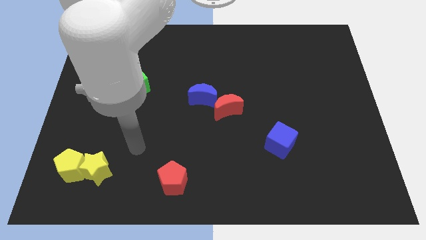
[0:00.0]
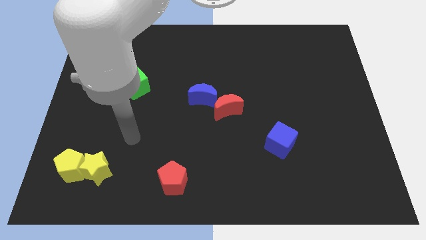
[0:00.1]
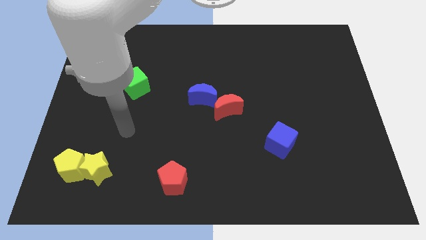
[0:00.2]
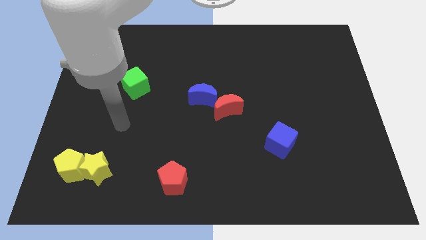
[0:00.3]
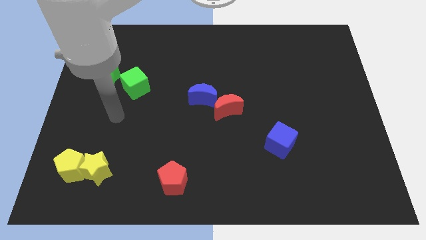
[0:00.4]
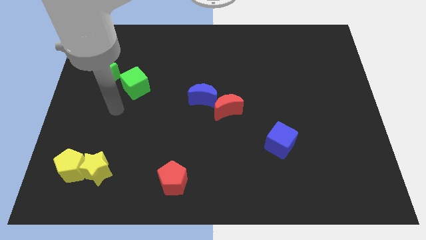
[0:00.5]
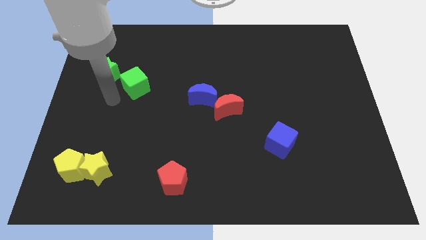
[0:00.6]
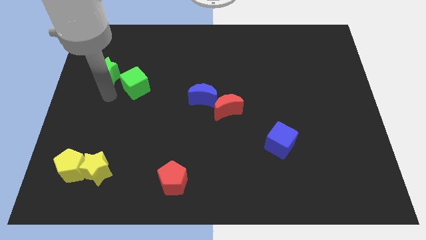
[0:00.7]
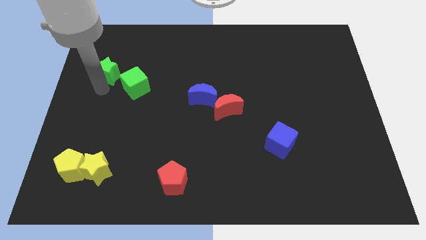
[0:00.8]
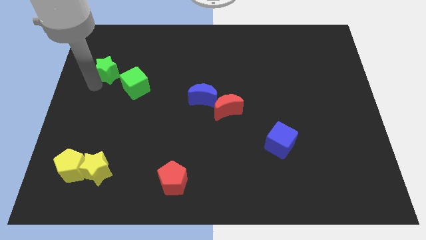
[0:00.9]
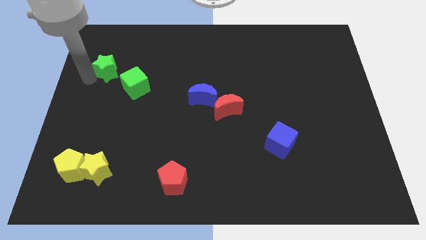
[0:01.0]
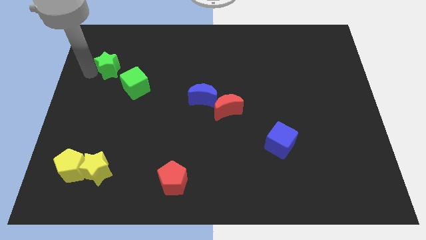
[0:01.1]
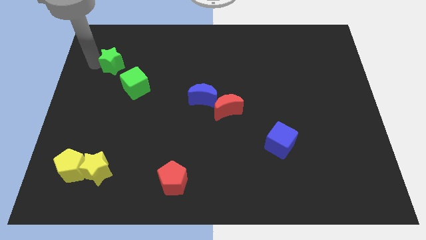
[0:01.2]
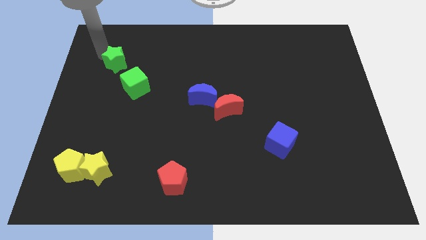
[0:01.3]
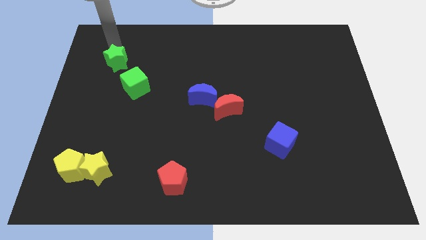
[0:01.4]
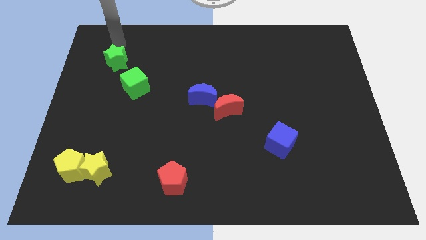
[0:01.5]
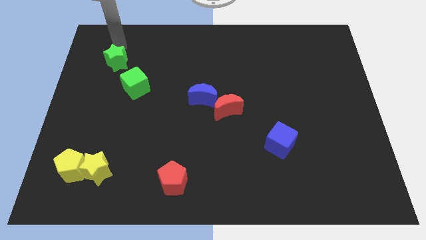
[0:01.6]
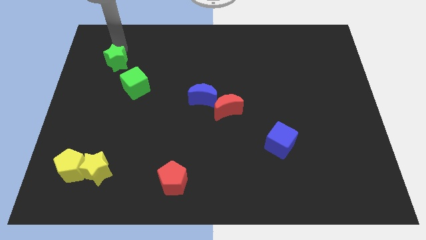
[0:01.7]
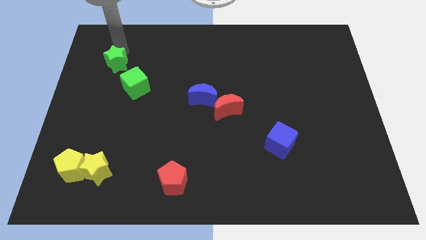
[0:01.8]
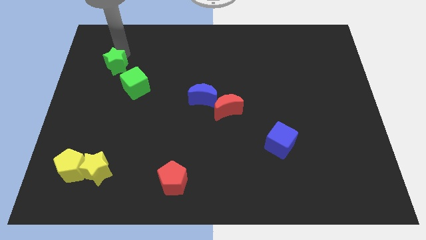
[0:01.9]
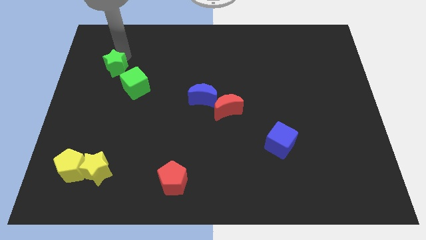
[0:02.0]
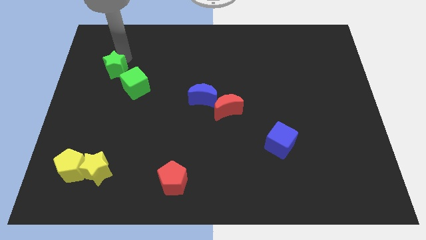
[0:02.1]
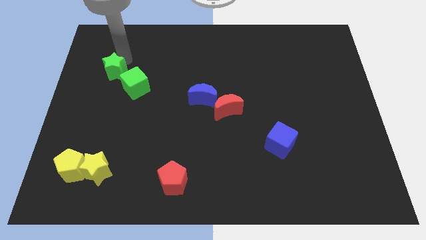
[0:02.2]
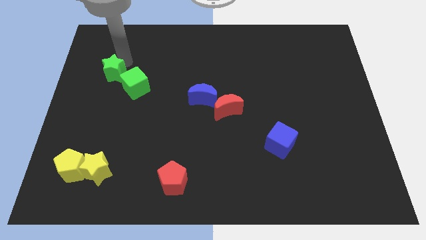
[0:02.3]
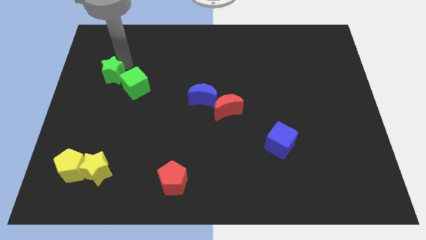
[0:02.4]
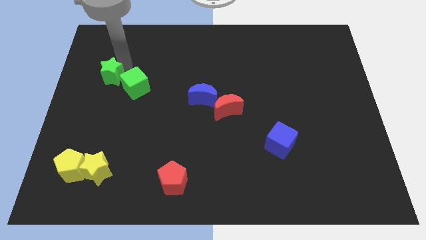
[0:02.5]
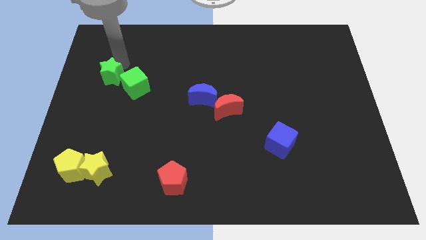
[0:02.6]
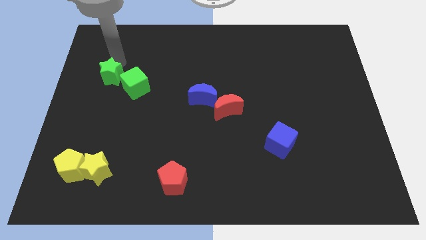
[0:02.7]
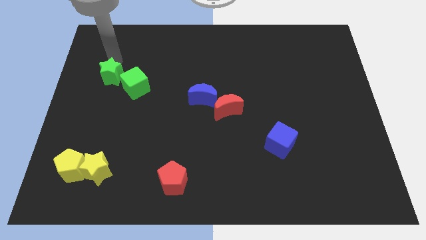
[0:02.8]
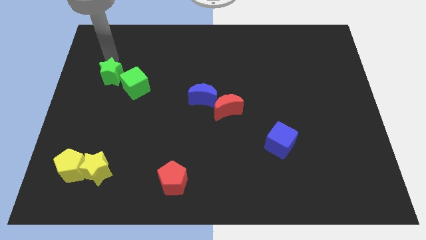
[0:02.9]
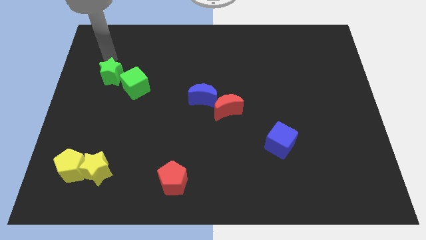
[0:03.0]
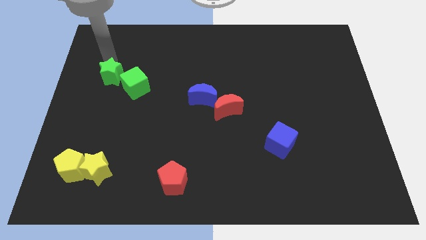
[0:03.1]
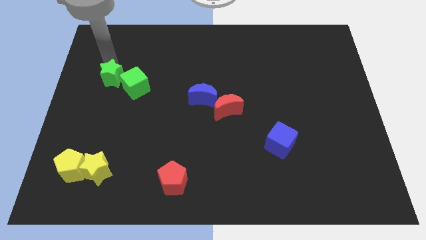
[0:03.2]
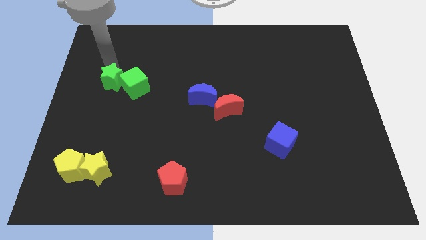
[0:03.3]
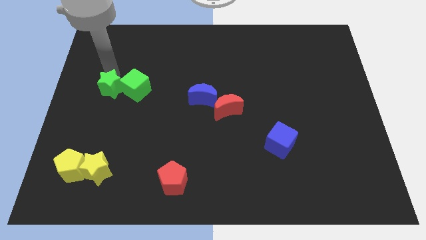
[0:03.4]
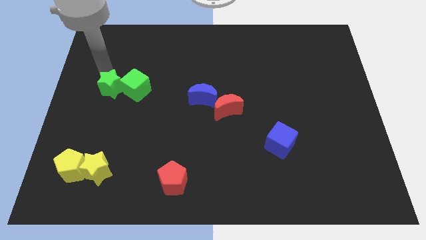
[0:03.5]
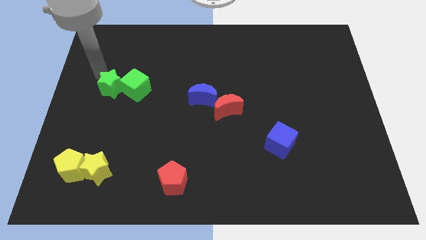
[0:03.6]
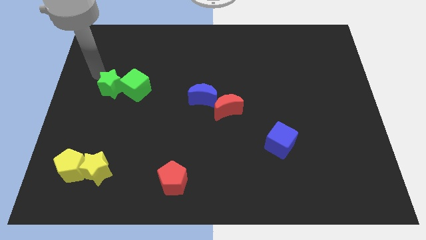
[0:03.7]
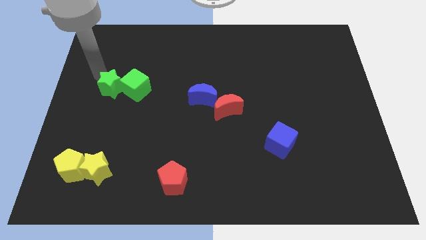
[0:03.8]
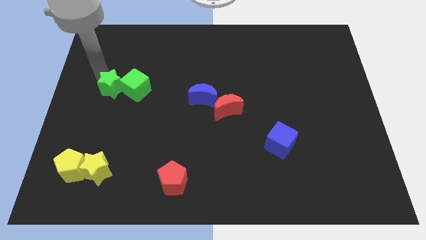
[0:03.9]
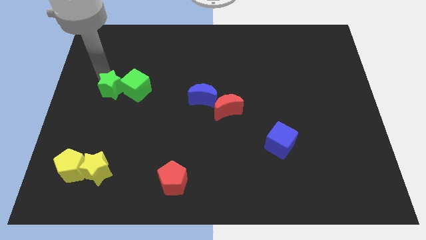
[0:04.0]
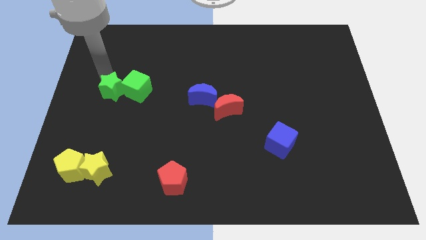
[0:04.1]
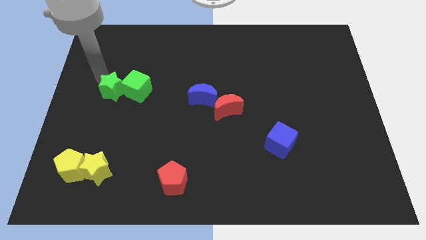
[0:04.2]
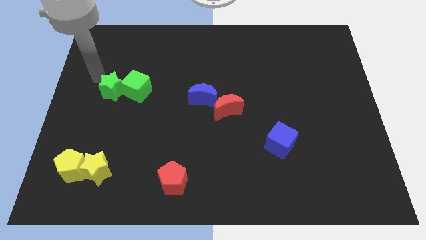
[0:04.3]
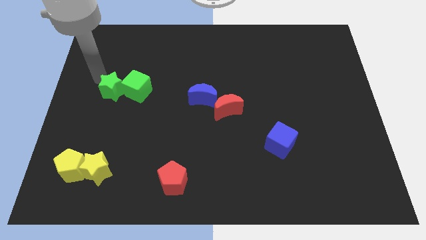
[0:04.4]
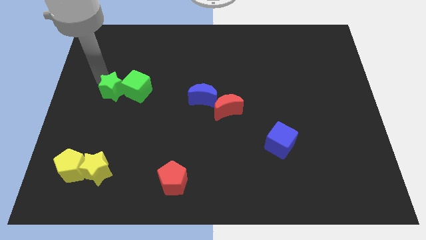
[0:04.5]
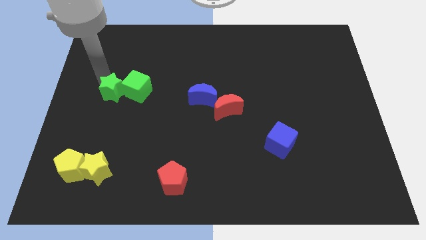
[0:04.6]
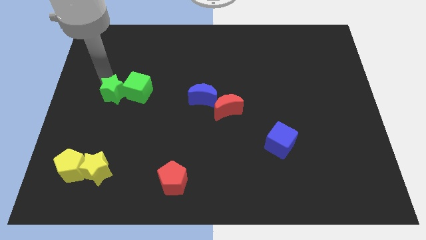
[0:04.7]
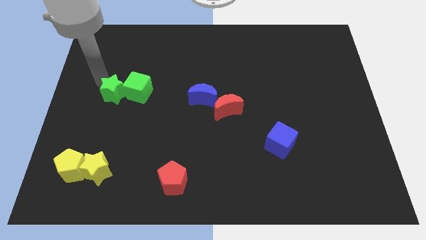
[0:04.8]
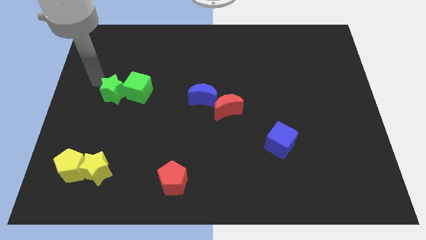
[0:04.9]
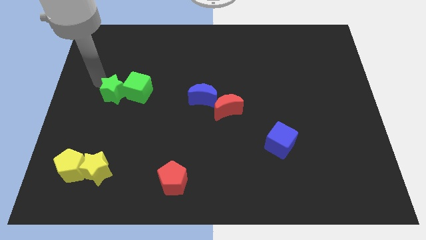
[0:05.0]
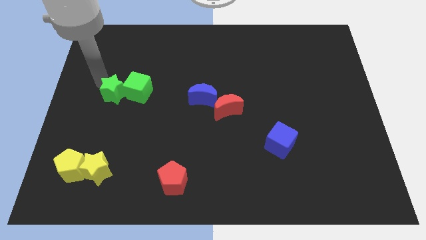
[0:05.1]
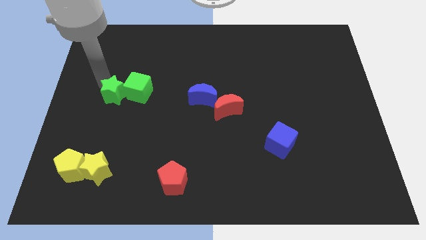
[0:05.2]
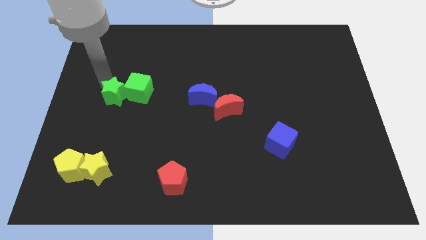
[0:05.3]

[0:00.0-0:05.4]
slightly slide the green star downwards and then to the right

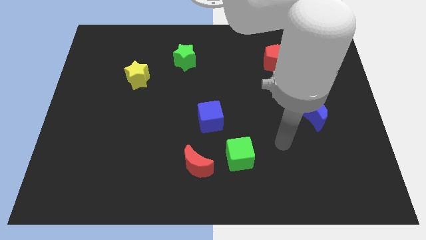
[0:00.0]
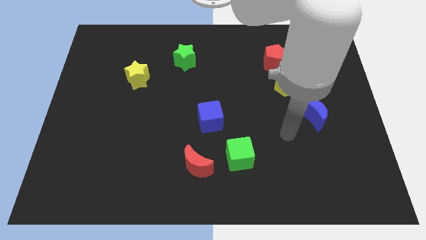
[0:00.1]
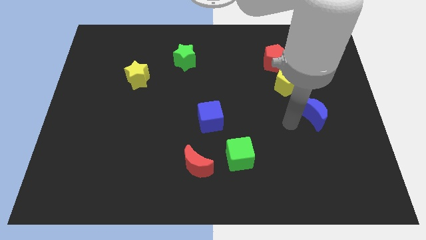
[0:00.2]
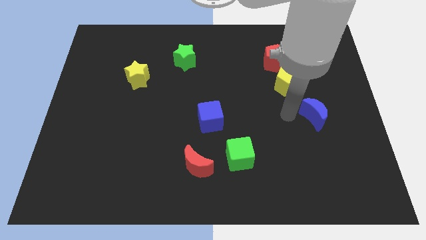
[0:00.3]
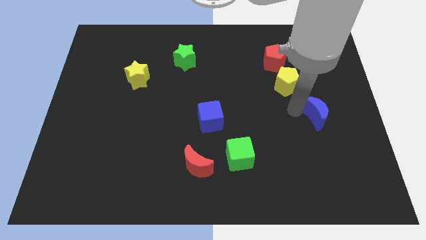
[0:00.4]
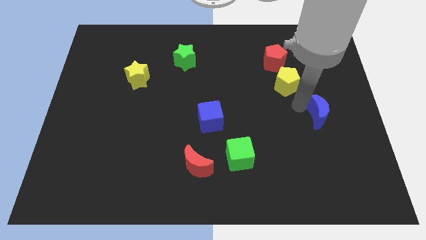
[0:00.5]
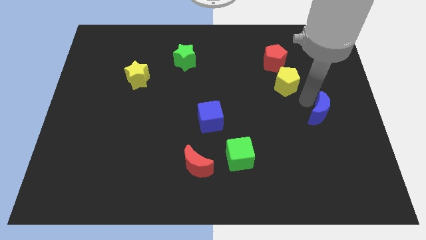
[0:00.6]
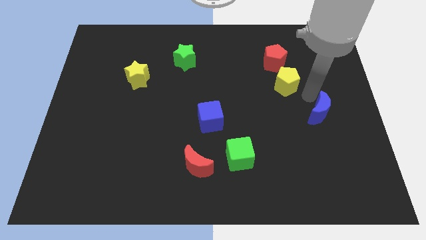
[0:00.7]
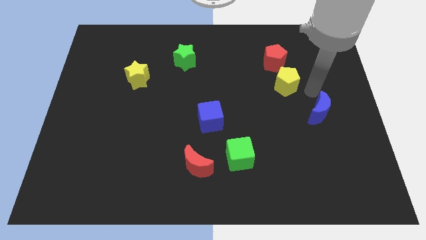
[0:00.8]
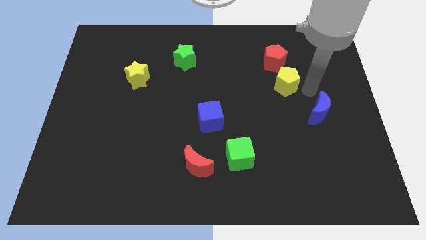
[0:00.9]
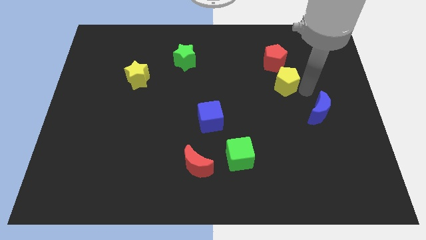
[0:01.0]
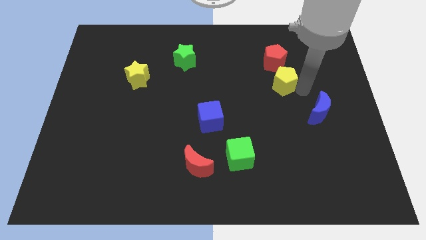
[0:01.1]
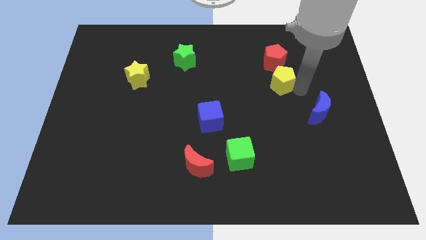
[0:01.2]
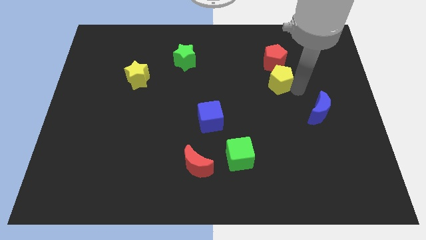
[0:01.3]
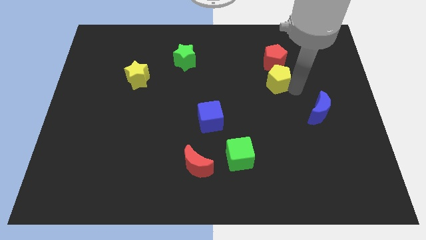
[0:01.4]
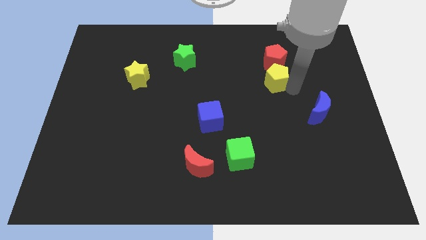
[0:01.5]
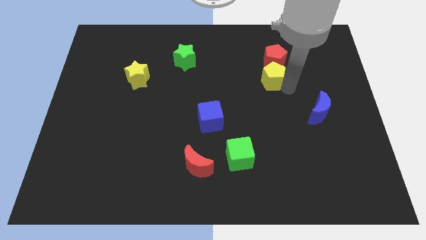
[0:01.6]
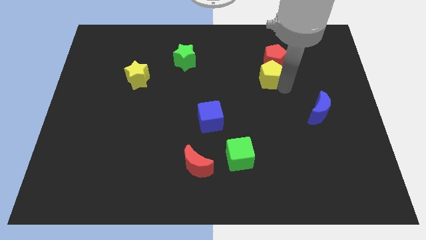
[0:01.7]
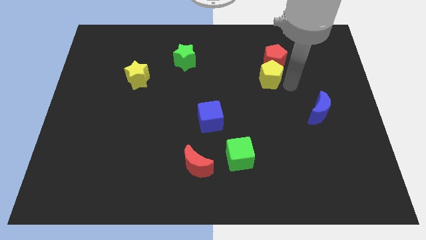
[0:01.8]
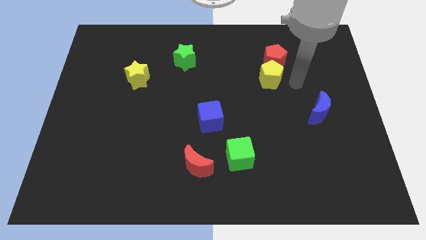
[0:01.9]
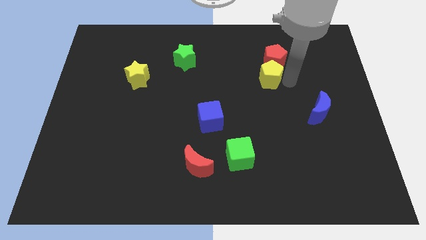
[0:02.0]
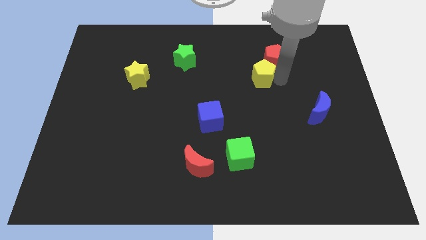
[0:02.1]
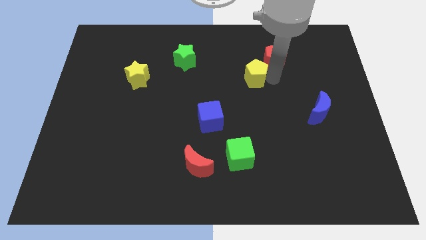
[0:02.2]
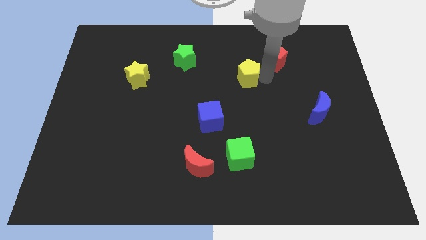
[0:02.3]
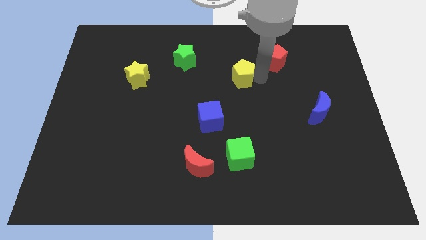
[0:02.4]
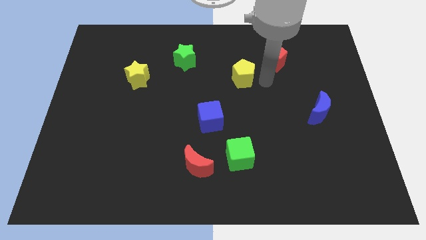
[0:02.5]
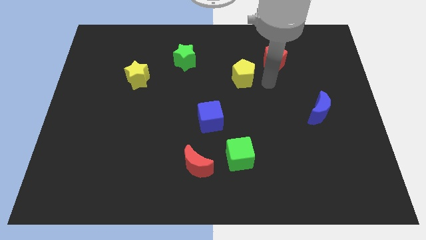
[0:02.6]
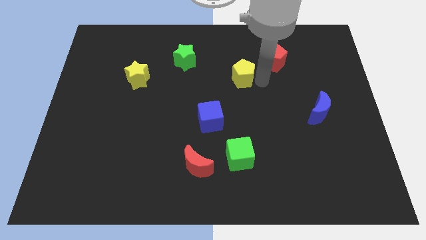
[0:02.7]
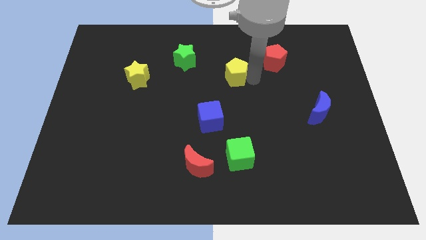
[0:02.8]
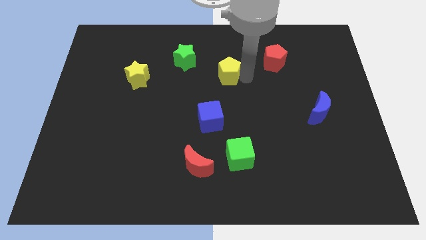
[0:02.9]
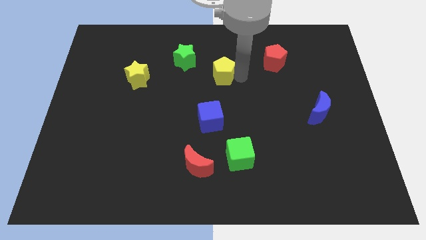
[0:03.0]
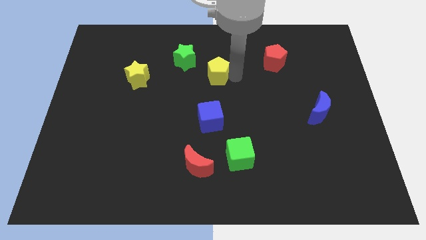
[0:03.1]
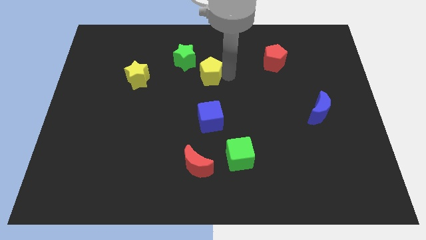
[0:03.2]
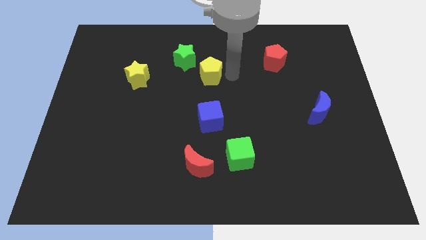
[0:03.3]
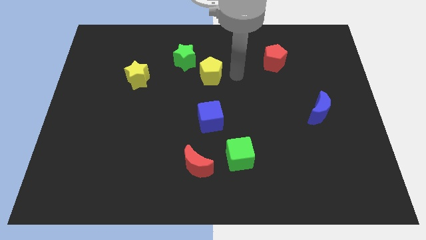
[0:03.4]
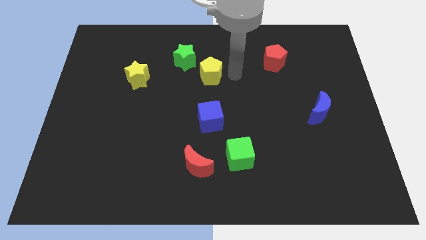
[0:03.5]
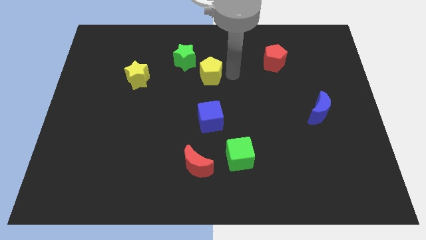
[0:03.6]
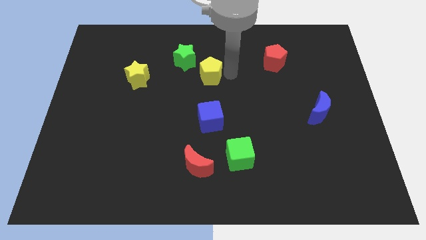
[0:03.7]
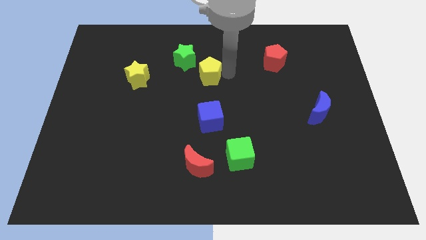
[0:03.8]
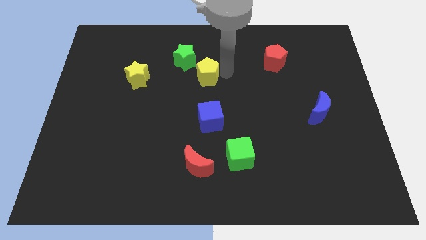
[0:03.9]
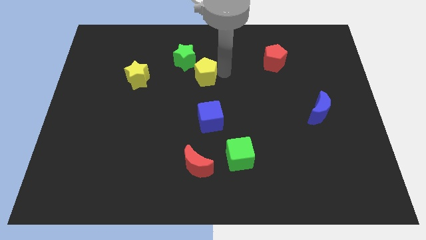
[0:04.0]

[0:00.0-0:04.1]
push the yellow pentagon to the left
